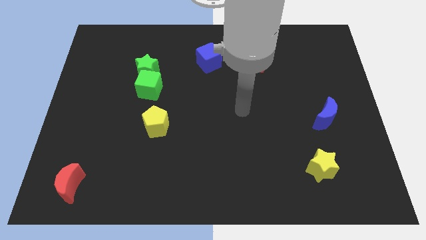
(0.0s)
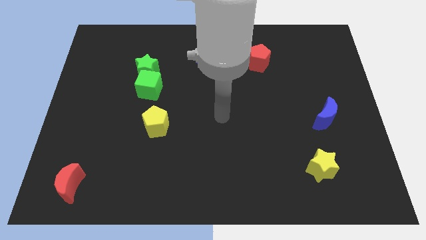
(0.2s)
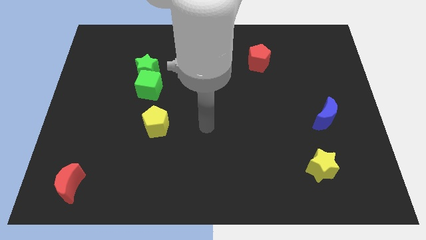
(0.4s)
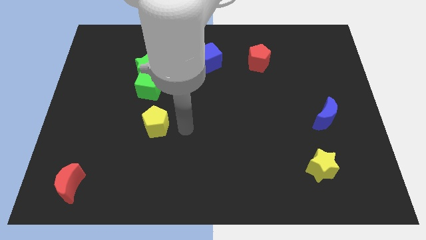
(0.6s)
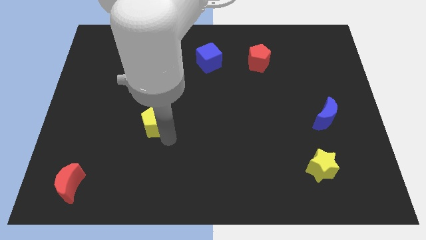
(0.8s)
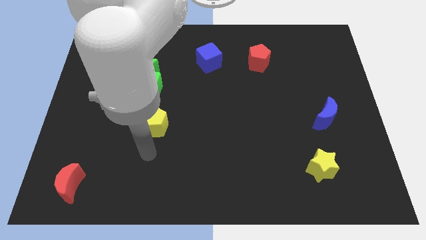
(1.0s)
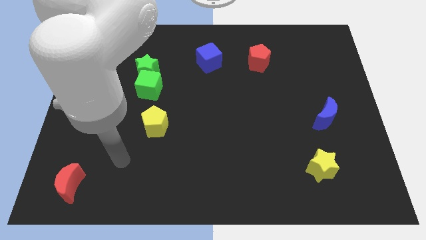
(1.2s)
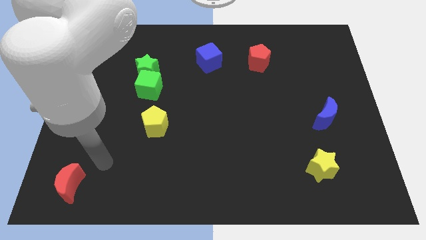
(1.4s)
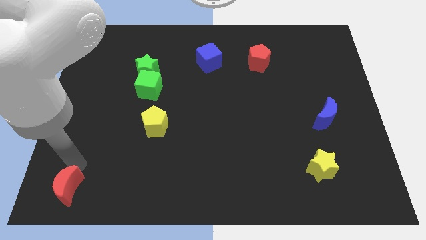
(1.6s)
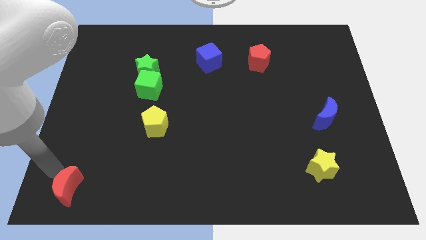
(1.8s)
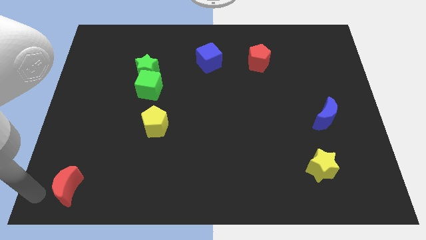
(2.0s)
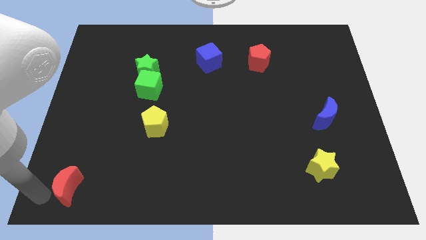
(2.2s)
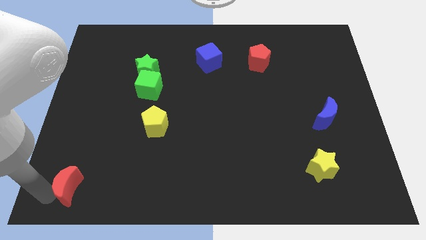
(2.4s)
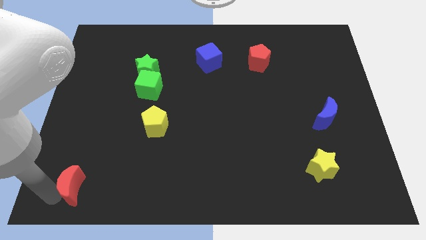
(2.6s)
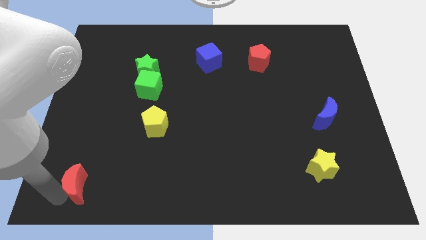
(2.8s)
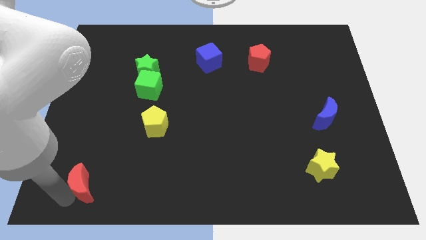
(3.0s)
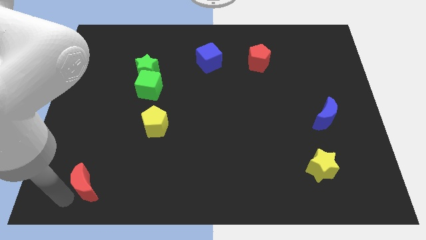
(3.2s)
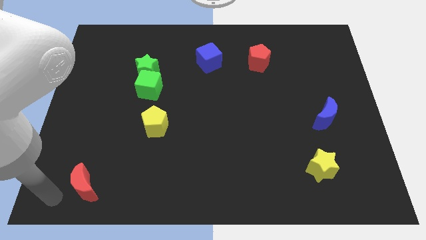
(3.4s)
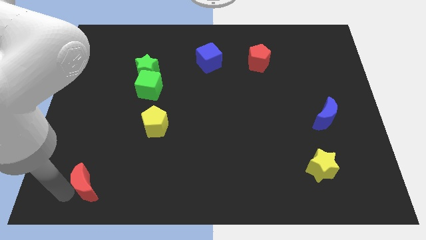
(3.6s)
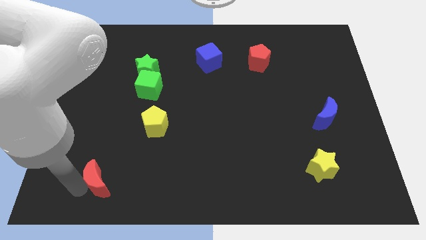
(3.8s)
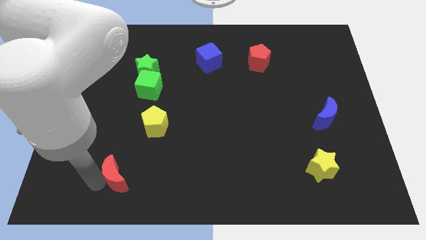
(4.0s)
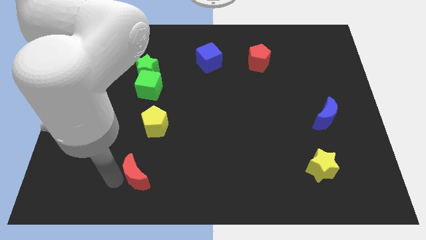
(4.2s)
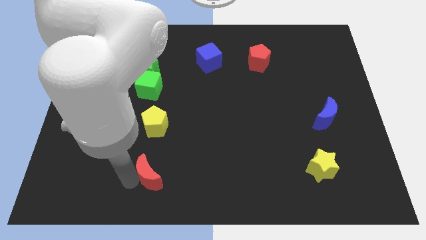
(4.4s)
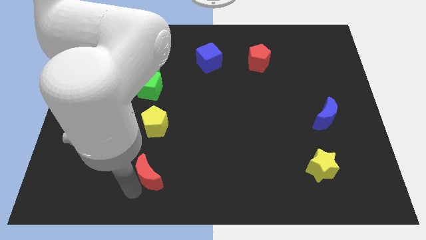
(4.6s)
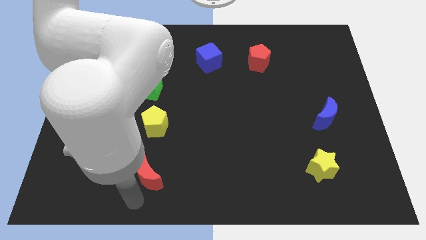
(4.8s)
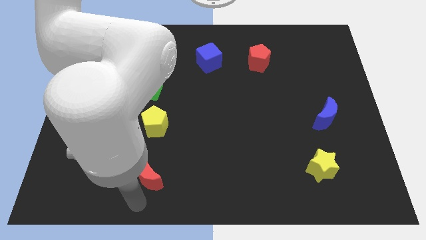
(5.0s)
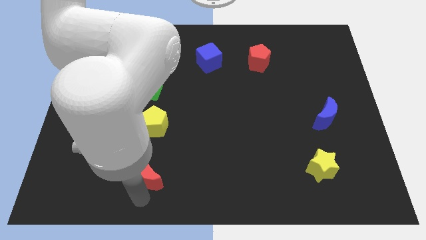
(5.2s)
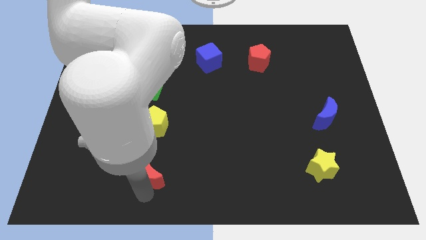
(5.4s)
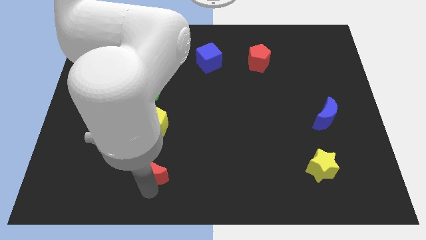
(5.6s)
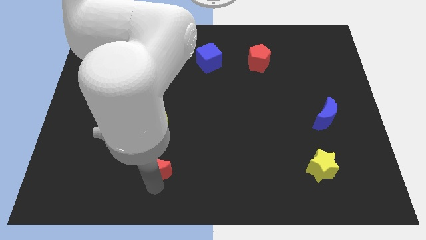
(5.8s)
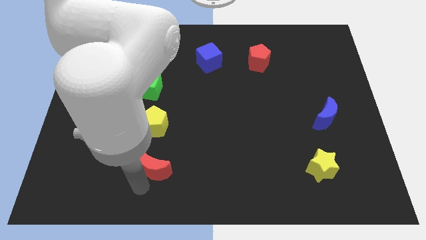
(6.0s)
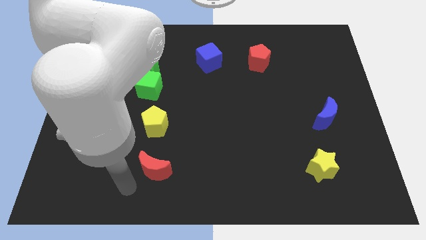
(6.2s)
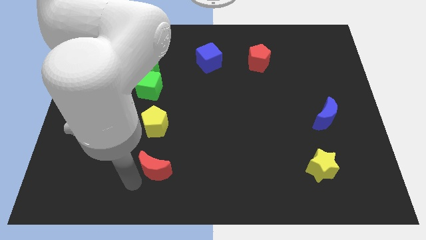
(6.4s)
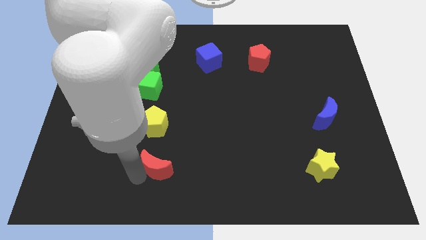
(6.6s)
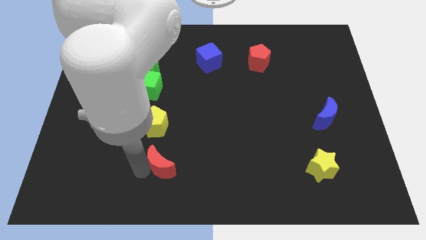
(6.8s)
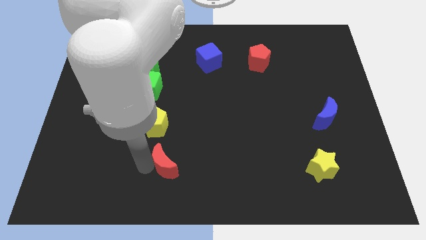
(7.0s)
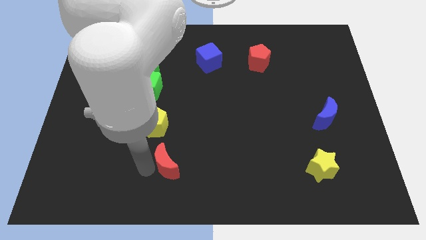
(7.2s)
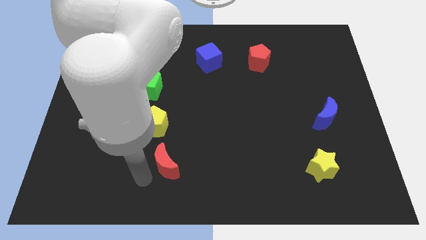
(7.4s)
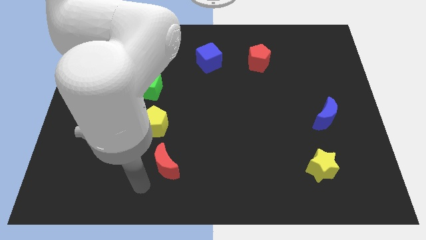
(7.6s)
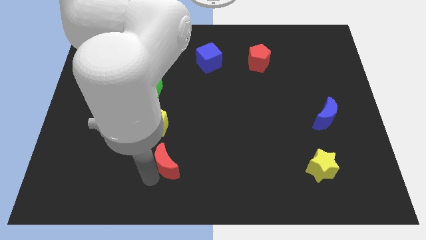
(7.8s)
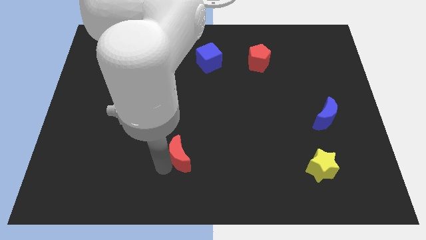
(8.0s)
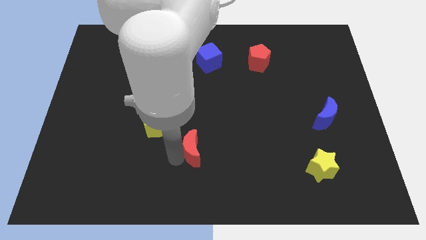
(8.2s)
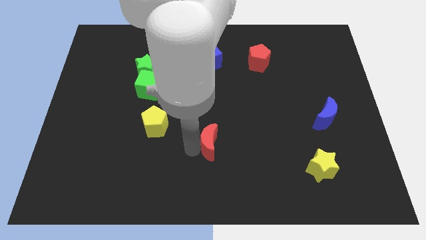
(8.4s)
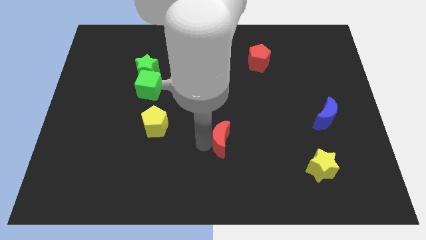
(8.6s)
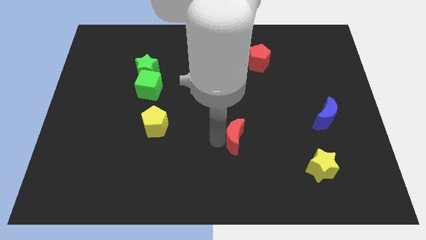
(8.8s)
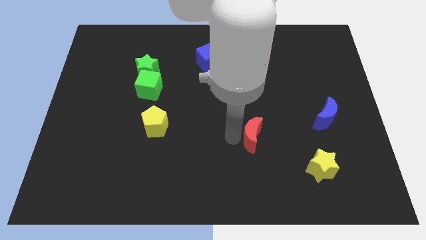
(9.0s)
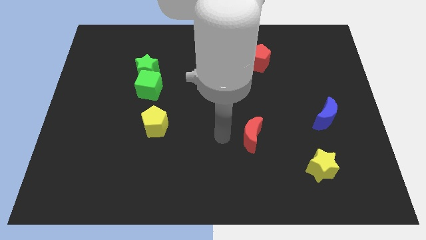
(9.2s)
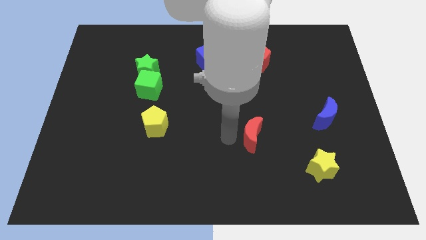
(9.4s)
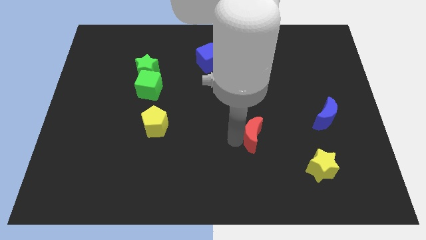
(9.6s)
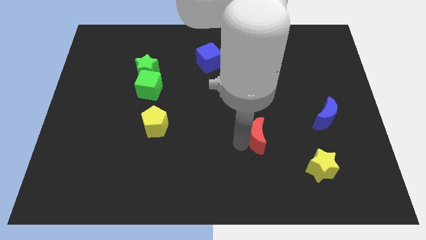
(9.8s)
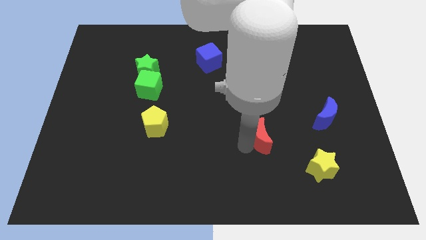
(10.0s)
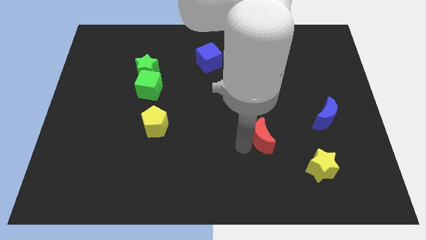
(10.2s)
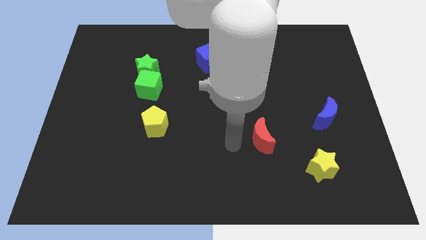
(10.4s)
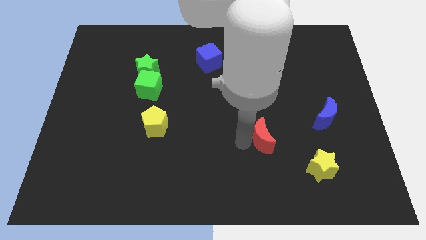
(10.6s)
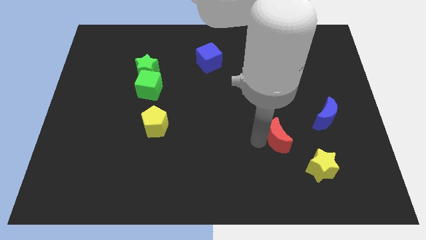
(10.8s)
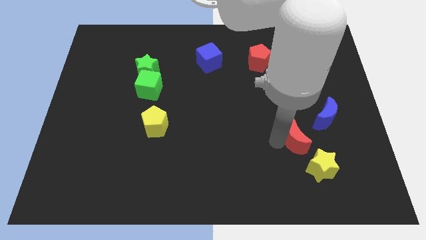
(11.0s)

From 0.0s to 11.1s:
push the red moon to the top side of the yellow star

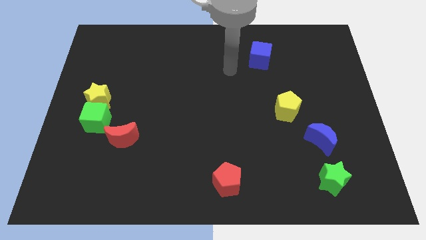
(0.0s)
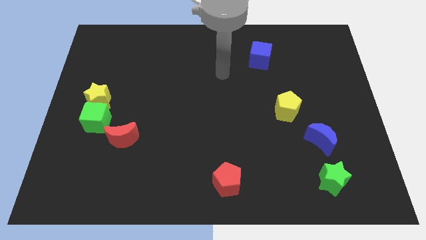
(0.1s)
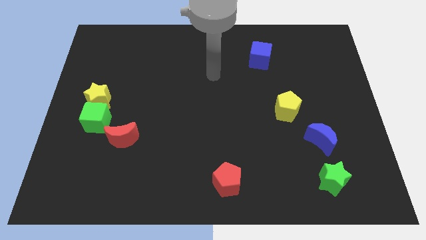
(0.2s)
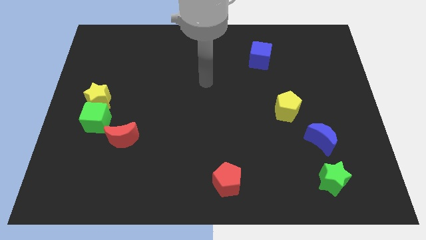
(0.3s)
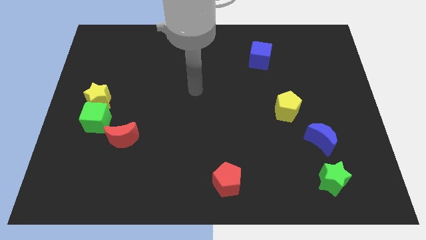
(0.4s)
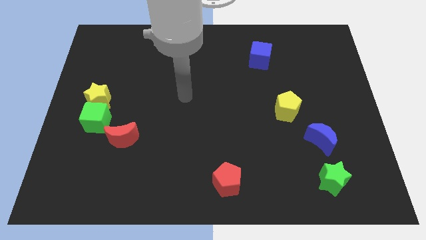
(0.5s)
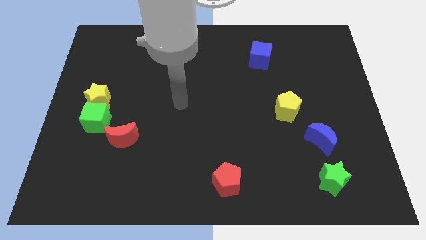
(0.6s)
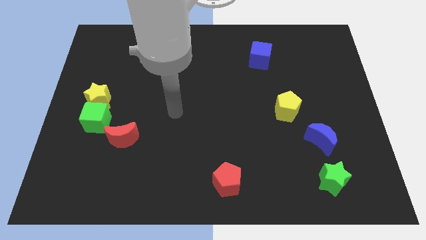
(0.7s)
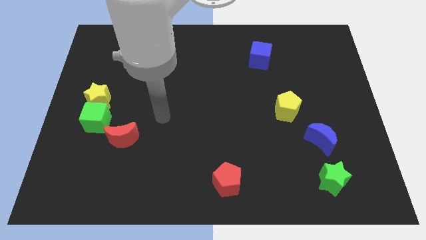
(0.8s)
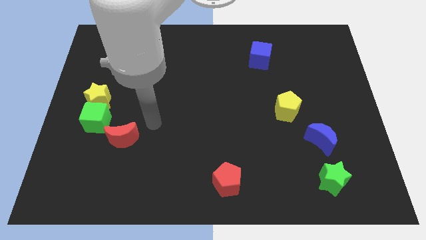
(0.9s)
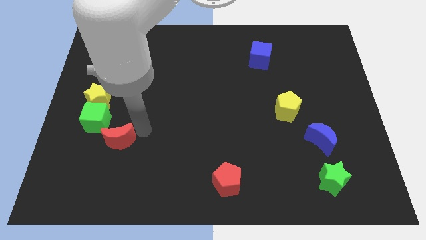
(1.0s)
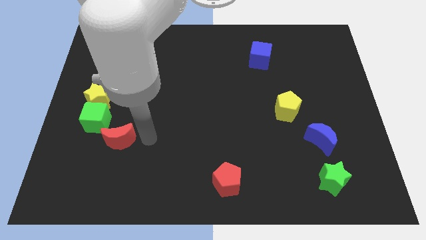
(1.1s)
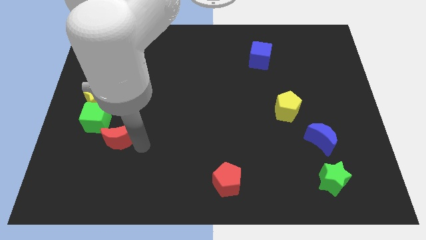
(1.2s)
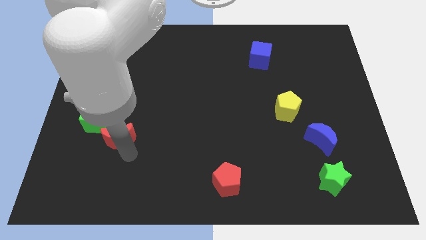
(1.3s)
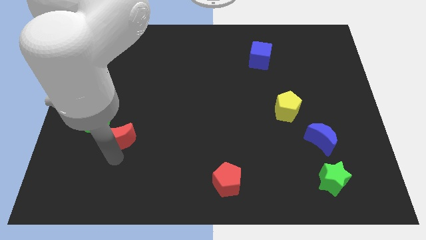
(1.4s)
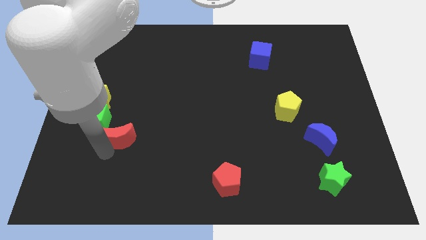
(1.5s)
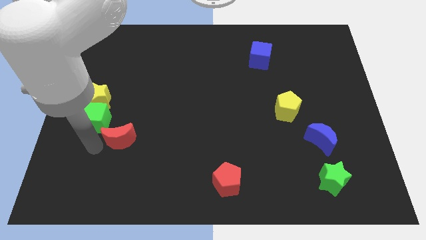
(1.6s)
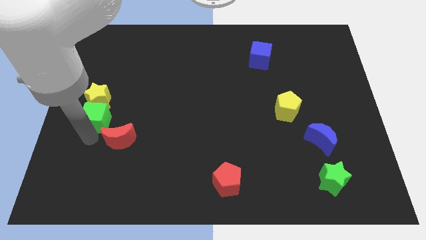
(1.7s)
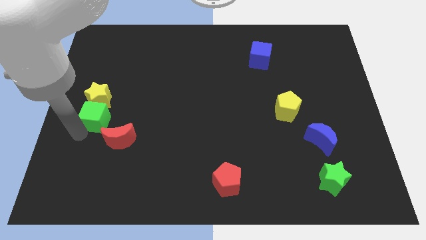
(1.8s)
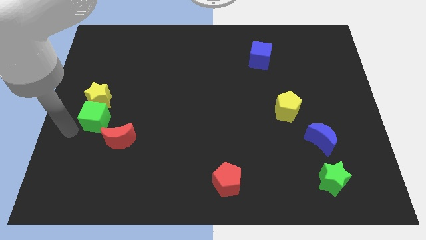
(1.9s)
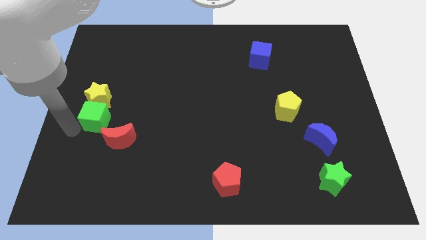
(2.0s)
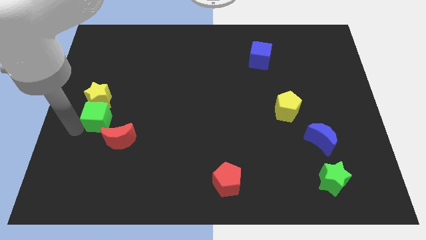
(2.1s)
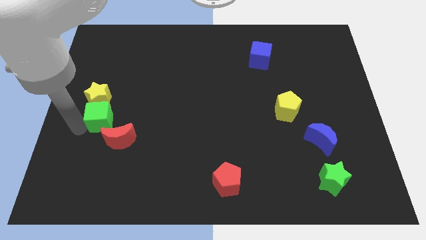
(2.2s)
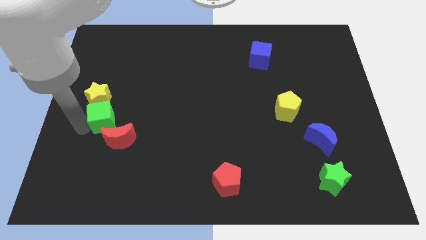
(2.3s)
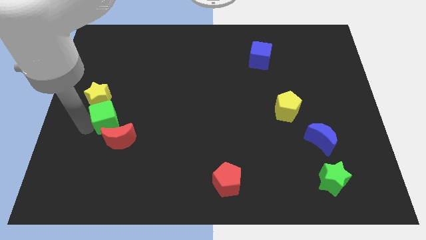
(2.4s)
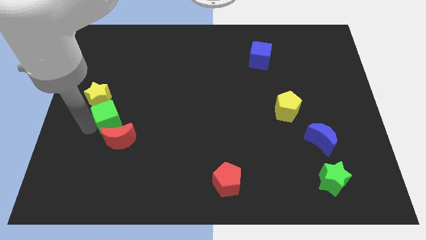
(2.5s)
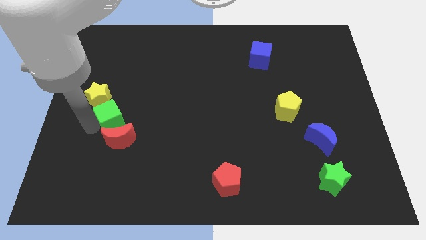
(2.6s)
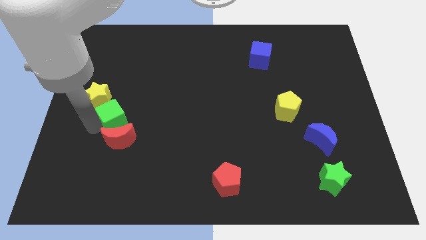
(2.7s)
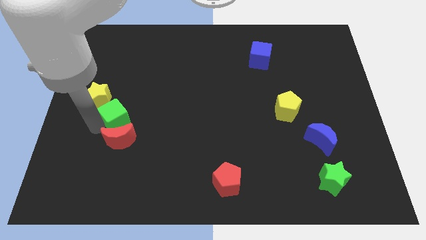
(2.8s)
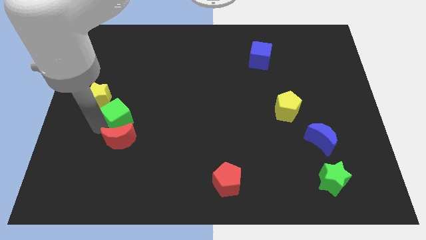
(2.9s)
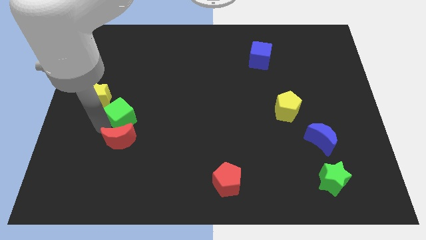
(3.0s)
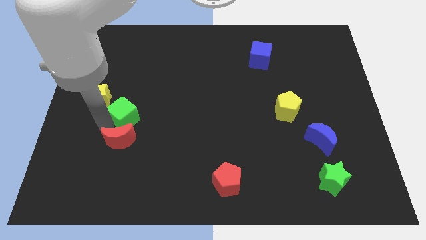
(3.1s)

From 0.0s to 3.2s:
put the green cube to the right side of the yellow star
